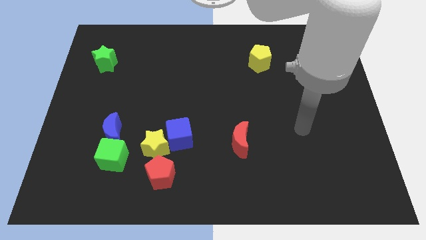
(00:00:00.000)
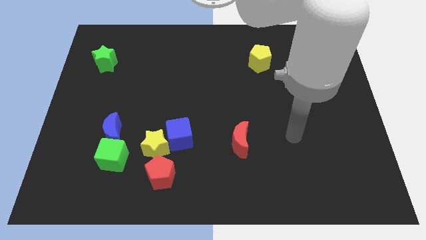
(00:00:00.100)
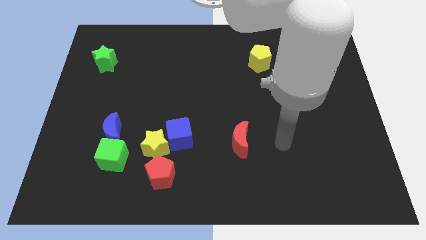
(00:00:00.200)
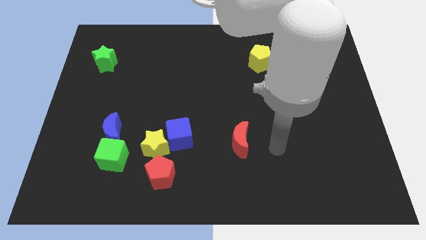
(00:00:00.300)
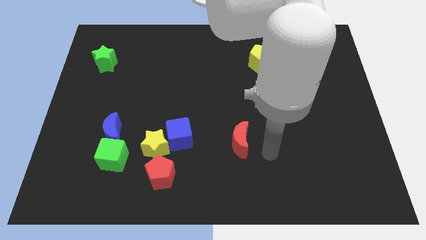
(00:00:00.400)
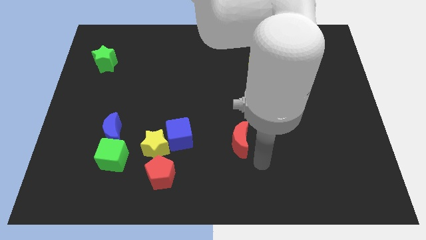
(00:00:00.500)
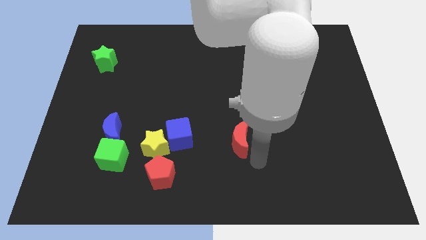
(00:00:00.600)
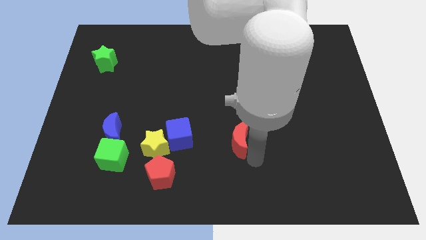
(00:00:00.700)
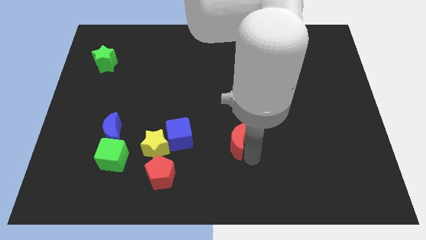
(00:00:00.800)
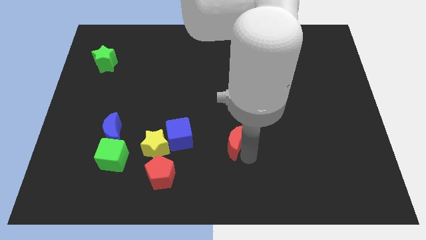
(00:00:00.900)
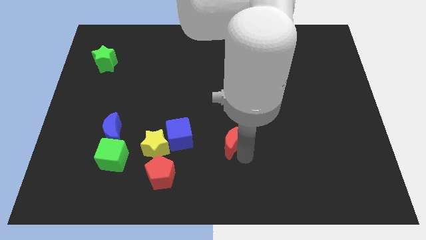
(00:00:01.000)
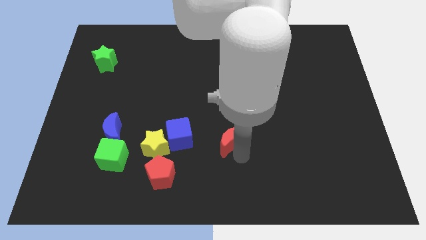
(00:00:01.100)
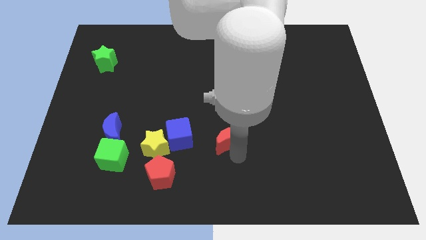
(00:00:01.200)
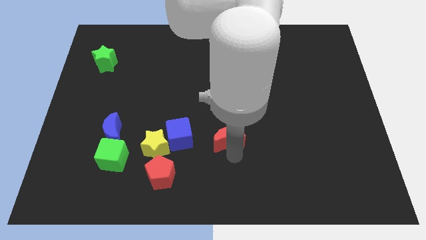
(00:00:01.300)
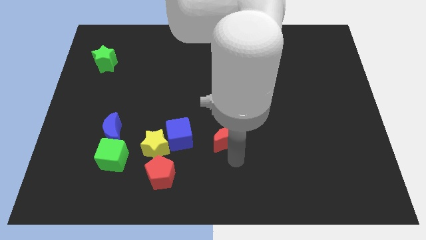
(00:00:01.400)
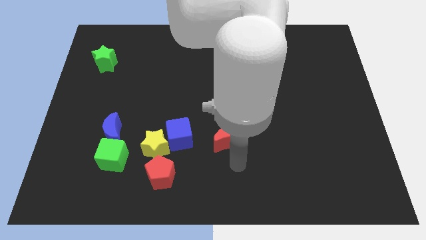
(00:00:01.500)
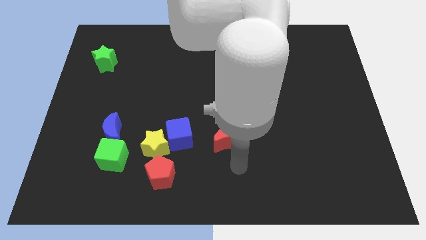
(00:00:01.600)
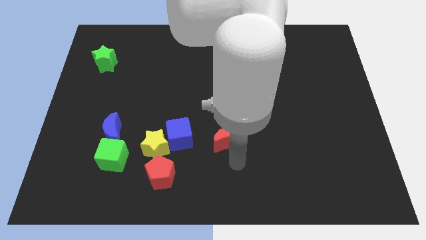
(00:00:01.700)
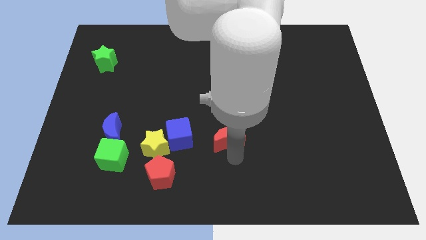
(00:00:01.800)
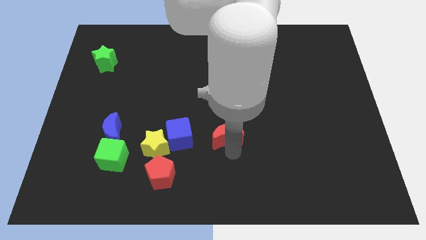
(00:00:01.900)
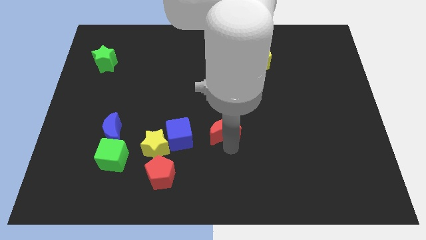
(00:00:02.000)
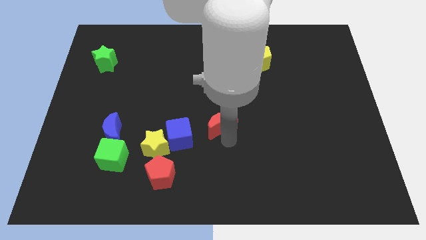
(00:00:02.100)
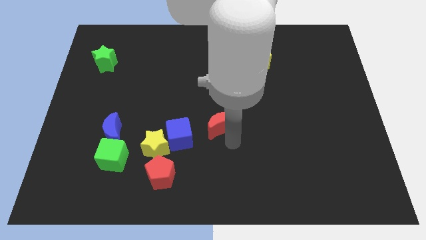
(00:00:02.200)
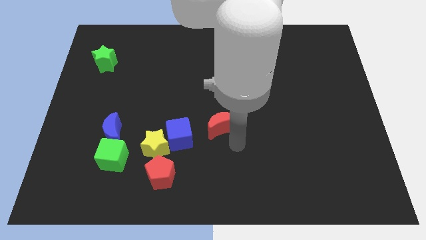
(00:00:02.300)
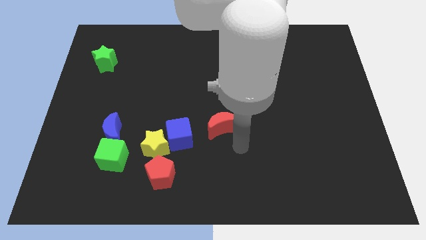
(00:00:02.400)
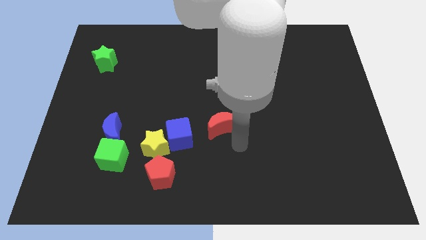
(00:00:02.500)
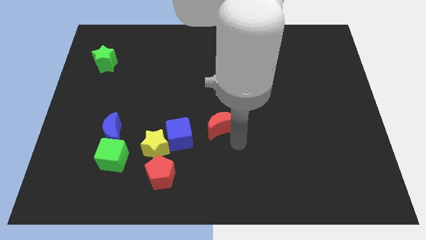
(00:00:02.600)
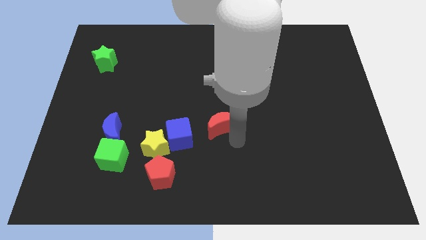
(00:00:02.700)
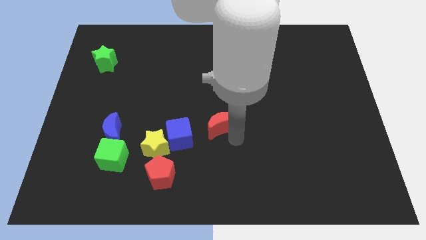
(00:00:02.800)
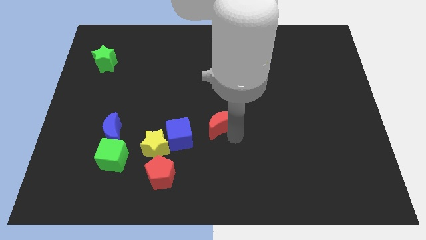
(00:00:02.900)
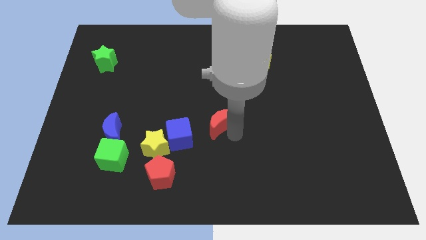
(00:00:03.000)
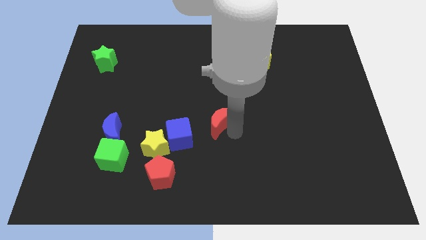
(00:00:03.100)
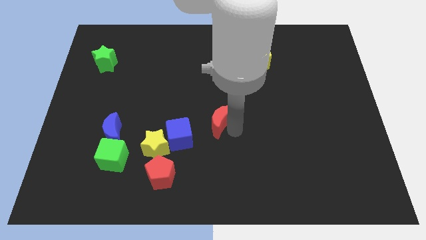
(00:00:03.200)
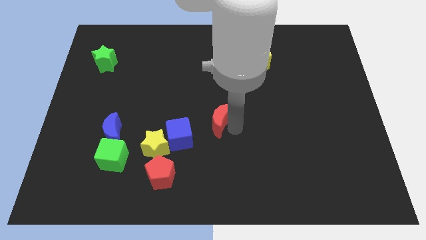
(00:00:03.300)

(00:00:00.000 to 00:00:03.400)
slide the red moon a little bit diagonally upwards and to the left

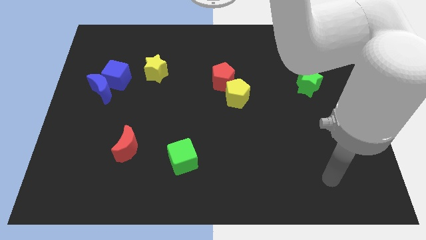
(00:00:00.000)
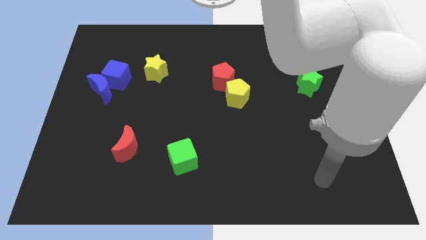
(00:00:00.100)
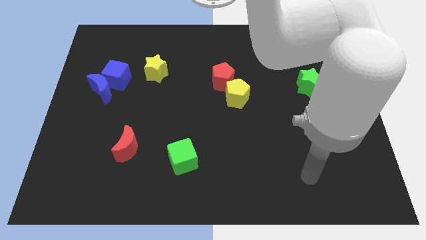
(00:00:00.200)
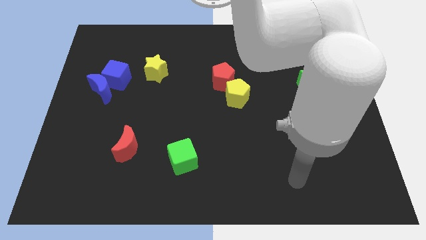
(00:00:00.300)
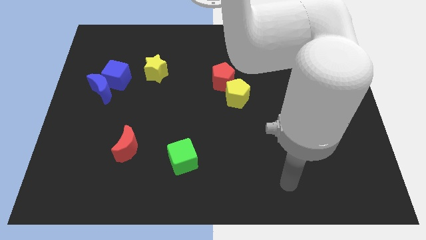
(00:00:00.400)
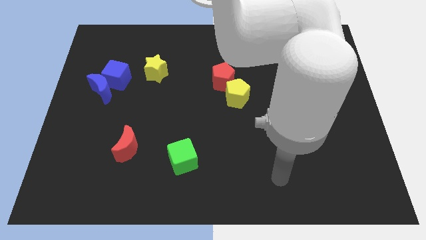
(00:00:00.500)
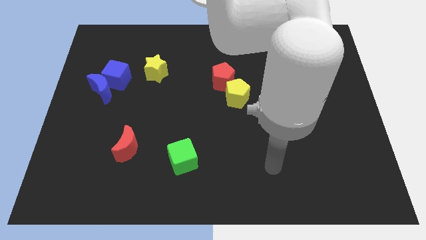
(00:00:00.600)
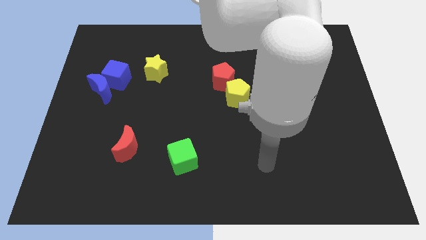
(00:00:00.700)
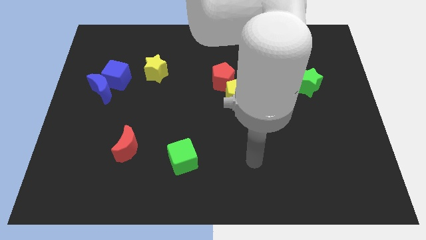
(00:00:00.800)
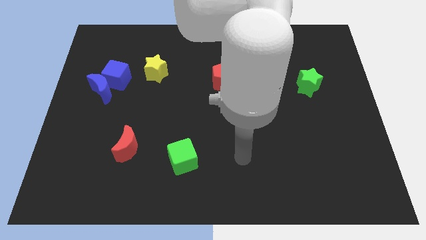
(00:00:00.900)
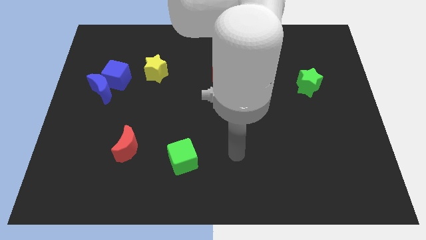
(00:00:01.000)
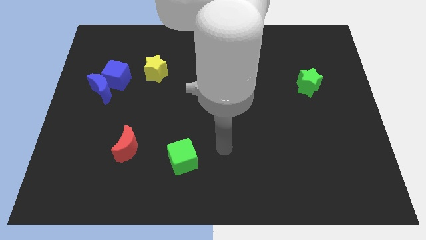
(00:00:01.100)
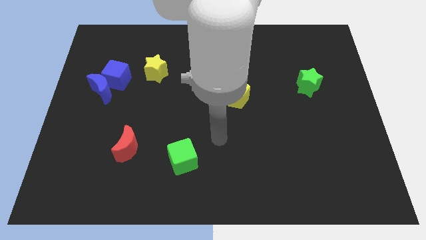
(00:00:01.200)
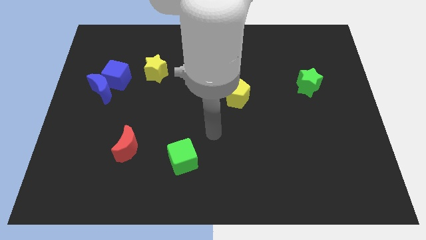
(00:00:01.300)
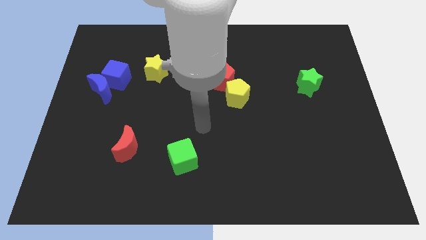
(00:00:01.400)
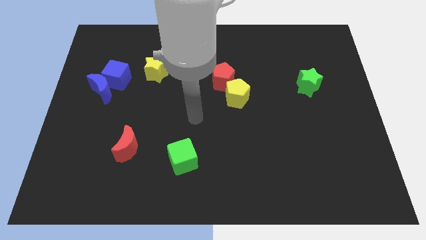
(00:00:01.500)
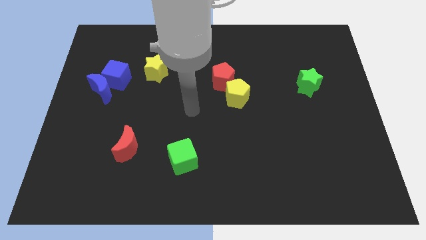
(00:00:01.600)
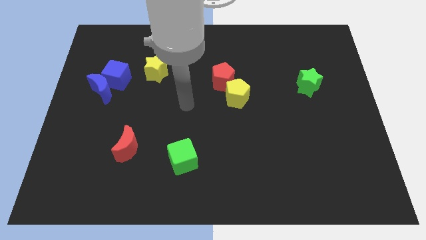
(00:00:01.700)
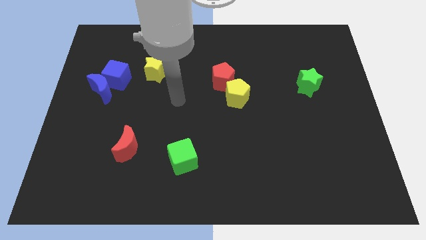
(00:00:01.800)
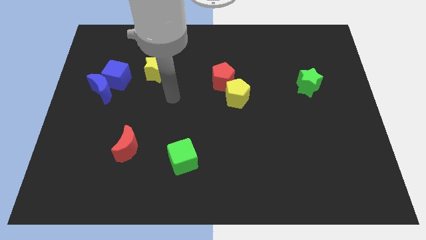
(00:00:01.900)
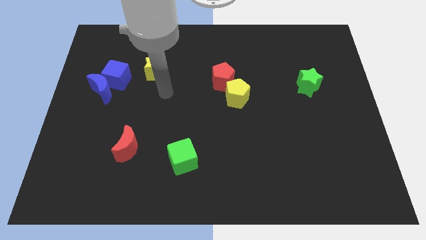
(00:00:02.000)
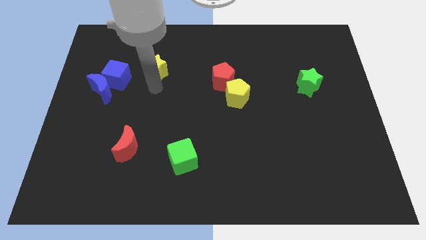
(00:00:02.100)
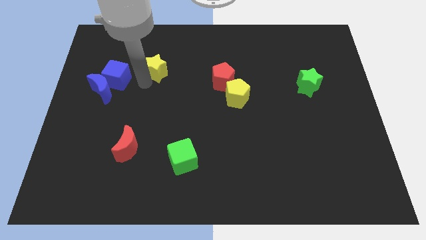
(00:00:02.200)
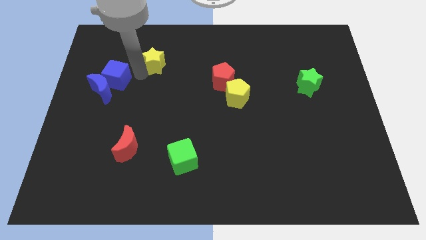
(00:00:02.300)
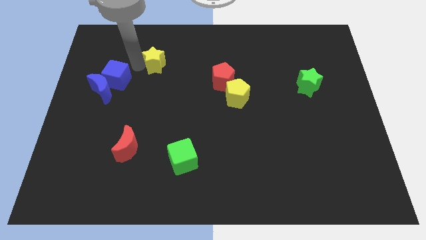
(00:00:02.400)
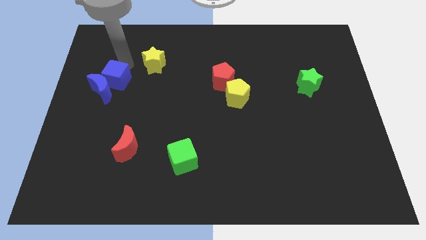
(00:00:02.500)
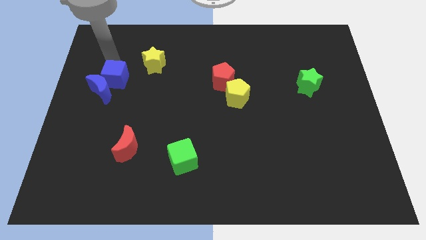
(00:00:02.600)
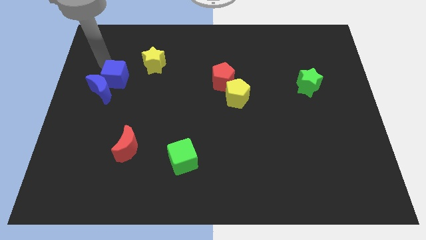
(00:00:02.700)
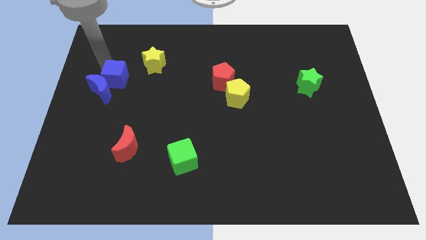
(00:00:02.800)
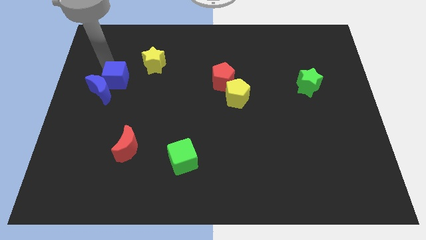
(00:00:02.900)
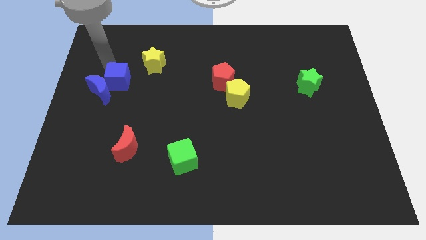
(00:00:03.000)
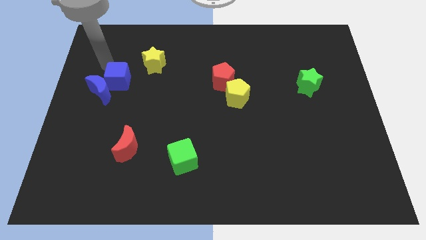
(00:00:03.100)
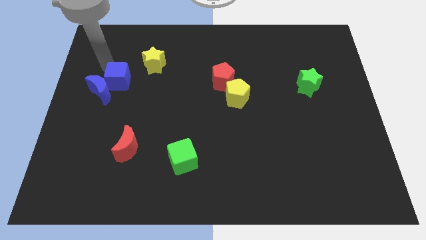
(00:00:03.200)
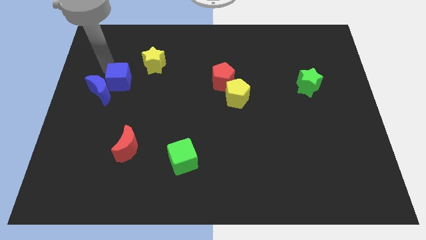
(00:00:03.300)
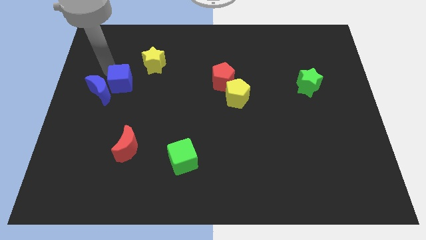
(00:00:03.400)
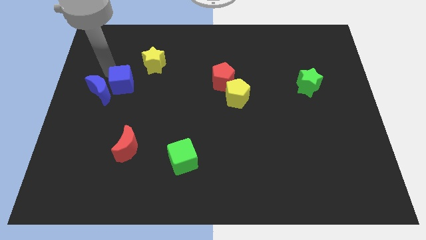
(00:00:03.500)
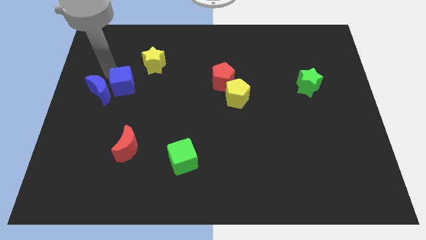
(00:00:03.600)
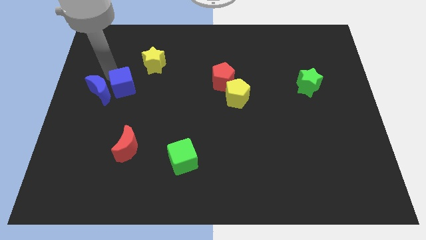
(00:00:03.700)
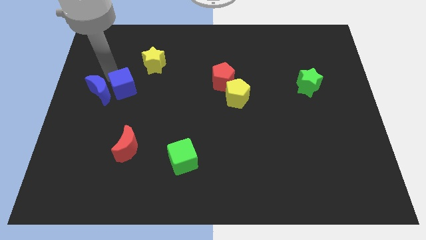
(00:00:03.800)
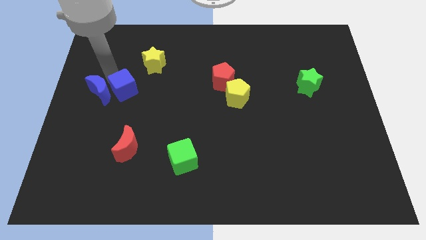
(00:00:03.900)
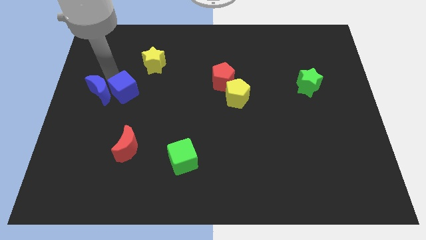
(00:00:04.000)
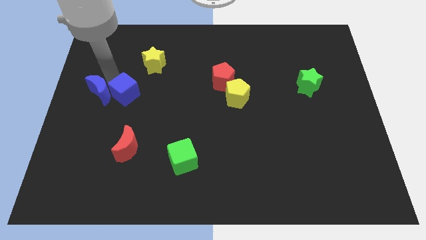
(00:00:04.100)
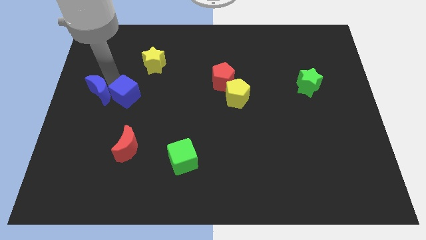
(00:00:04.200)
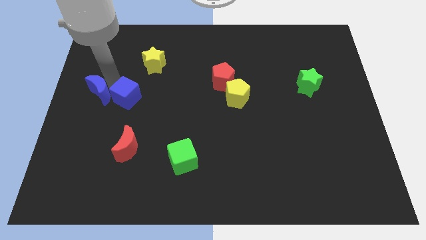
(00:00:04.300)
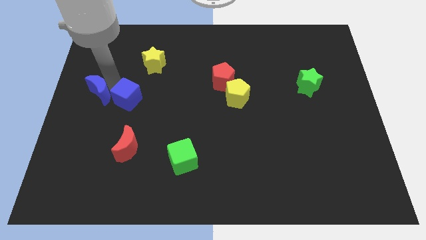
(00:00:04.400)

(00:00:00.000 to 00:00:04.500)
slightly push the blue cube diagonally downwards and to the right
